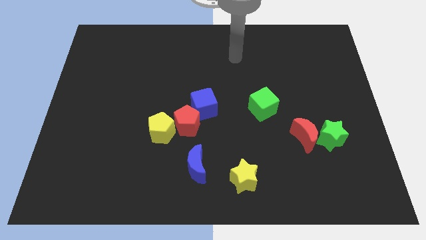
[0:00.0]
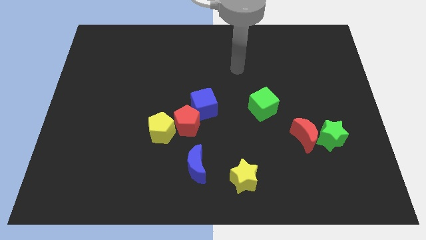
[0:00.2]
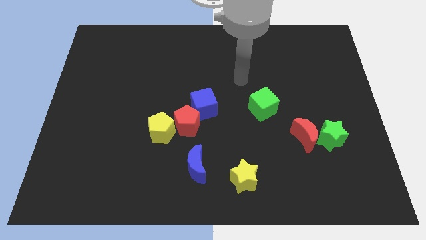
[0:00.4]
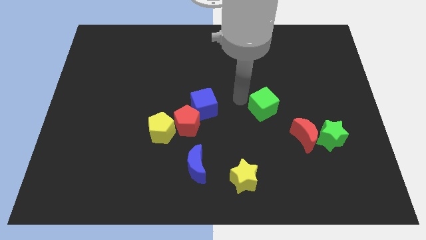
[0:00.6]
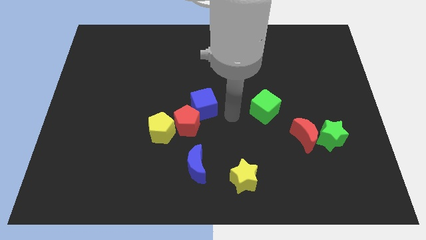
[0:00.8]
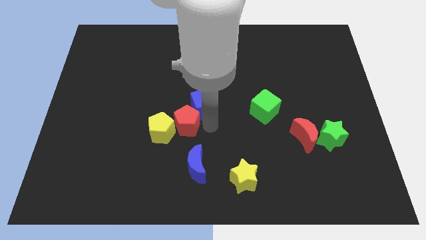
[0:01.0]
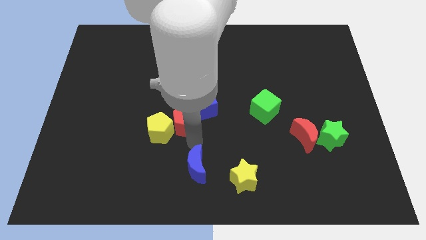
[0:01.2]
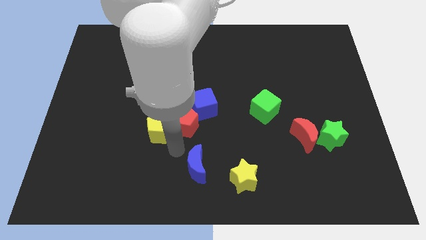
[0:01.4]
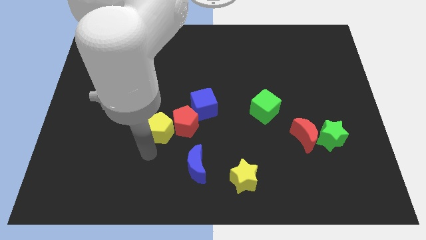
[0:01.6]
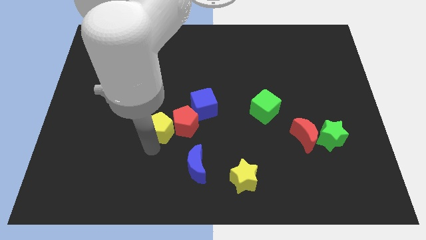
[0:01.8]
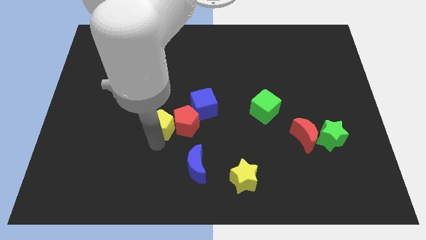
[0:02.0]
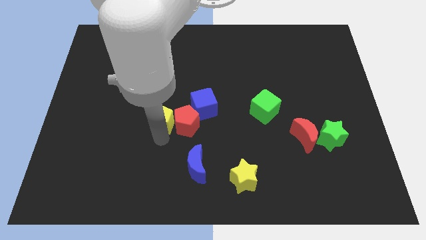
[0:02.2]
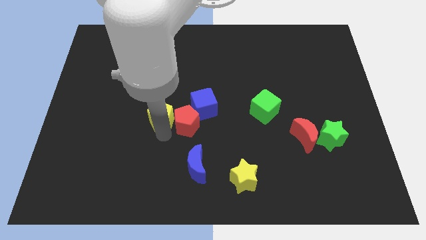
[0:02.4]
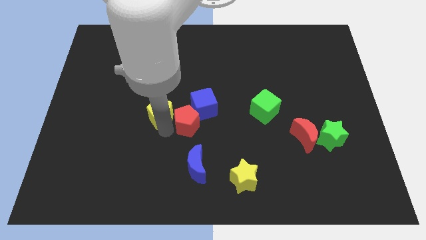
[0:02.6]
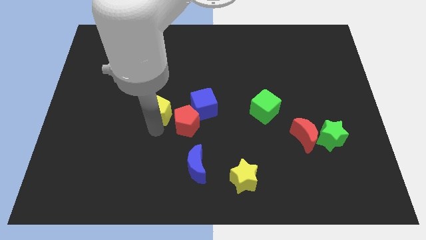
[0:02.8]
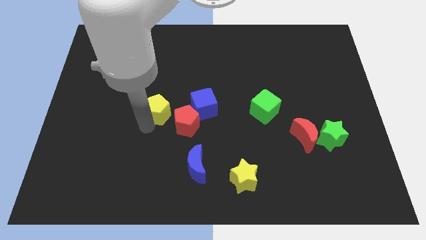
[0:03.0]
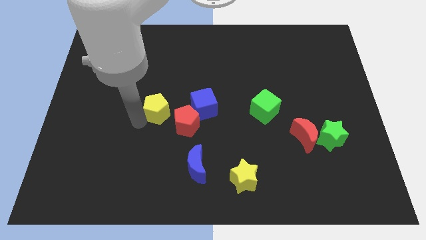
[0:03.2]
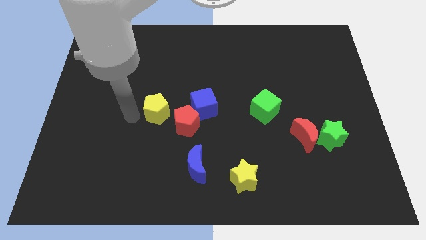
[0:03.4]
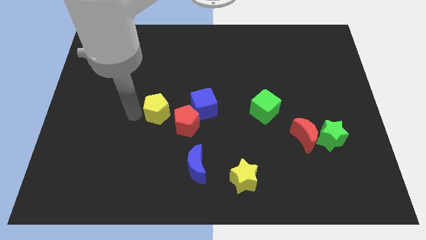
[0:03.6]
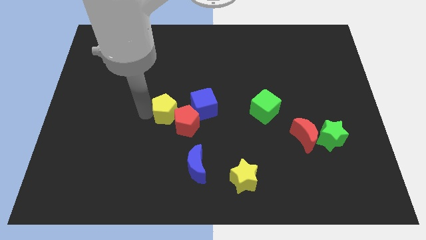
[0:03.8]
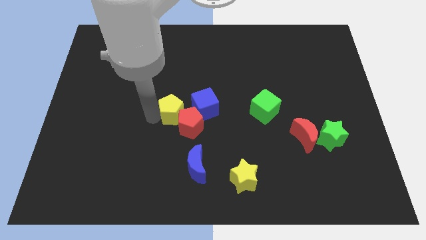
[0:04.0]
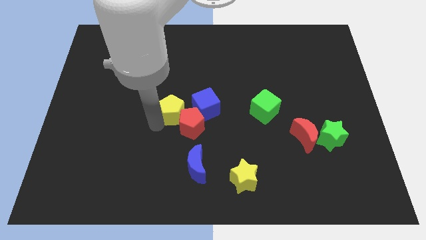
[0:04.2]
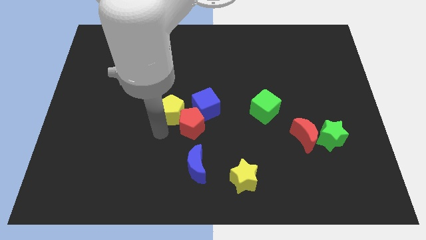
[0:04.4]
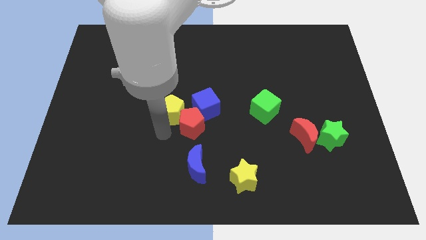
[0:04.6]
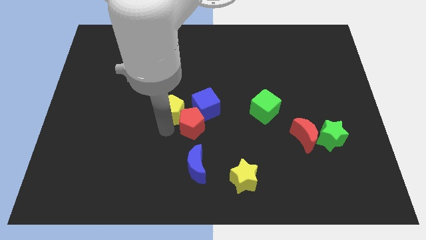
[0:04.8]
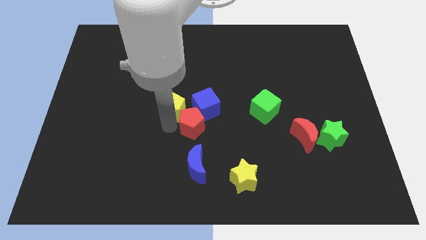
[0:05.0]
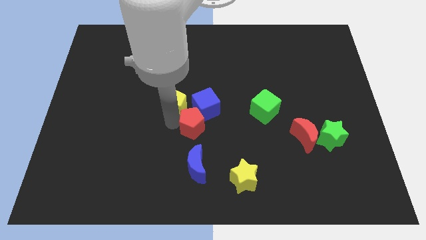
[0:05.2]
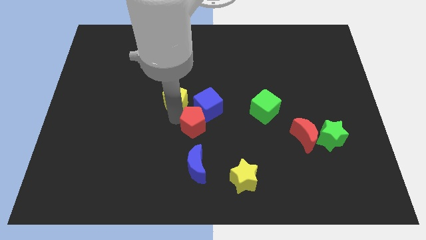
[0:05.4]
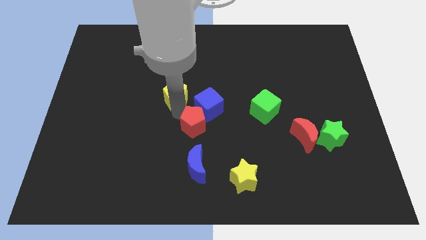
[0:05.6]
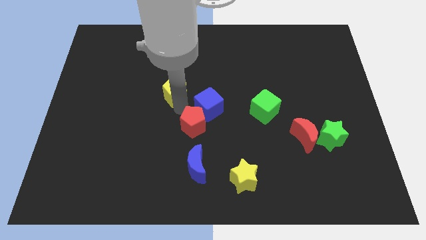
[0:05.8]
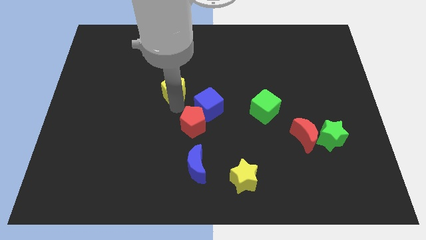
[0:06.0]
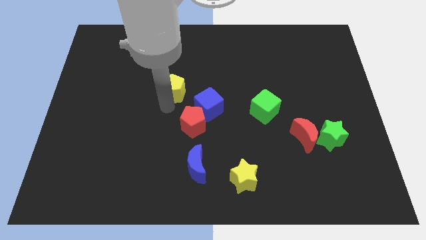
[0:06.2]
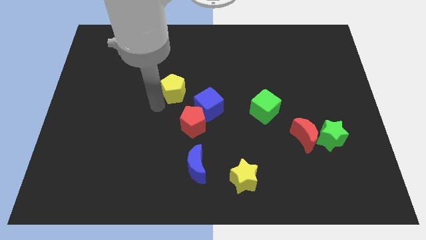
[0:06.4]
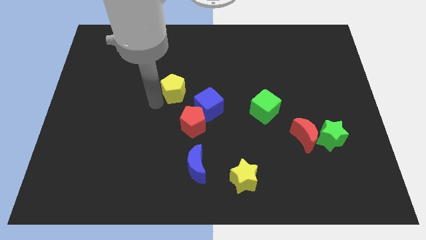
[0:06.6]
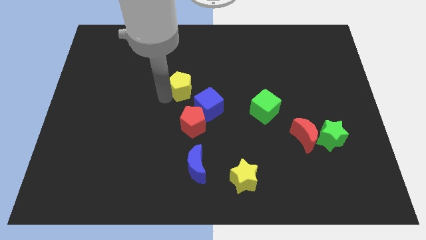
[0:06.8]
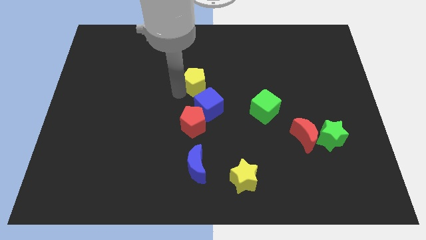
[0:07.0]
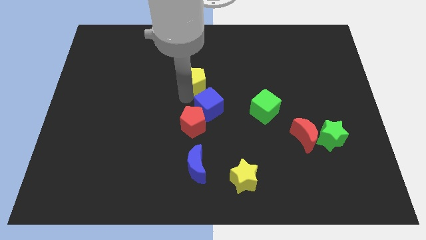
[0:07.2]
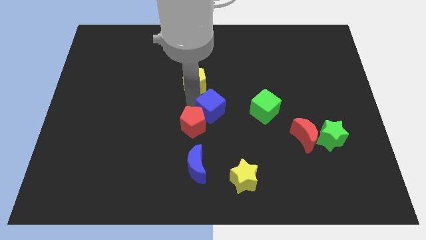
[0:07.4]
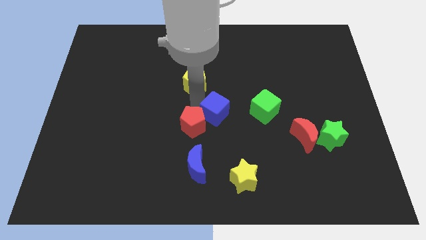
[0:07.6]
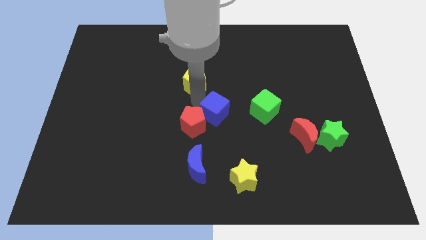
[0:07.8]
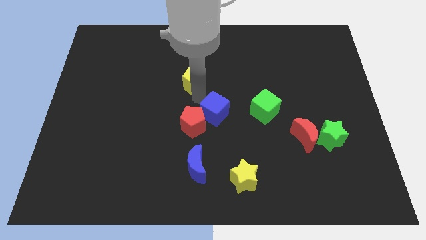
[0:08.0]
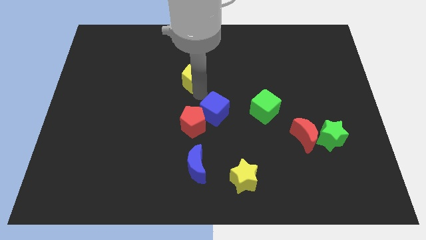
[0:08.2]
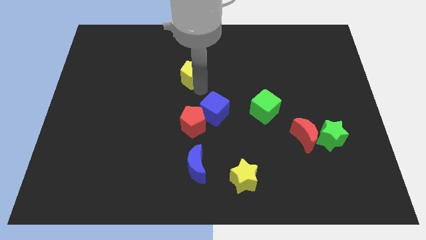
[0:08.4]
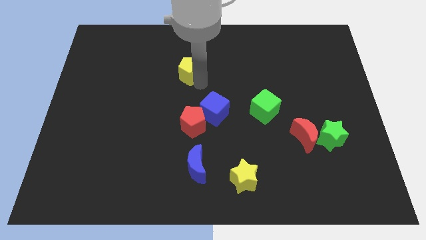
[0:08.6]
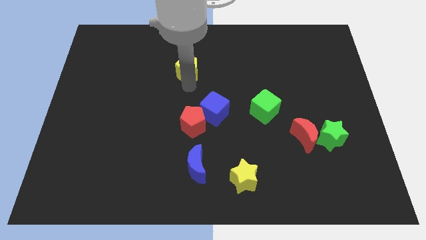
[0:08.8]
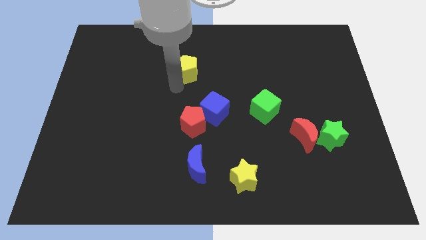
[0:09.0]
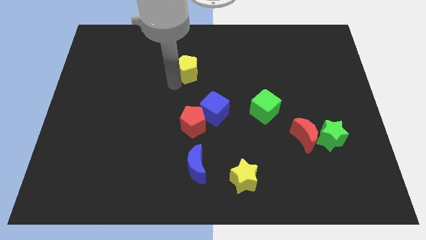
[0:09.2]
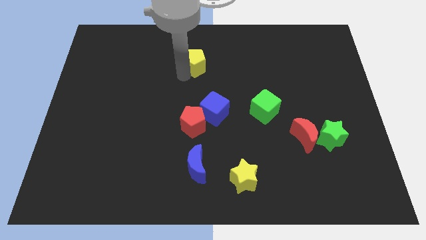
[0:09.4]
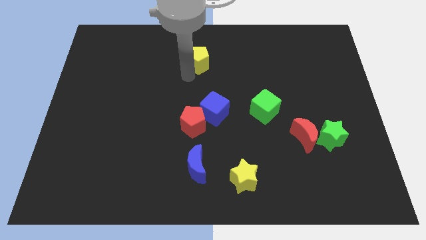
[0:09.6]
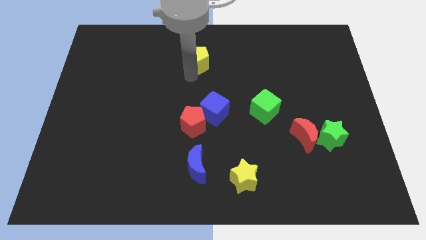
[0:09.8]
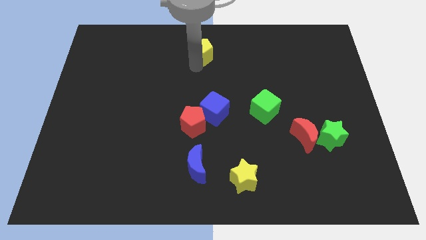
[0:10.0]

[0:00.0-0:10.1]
push the yellow pentagon to the top side

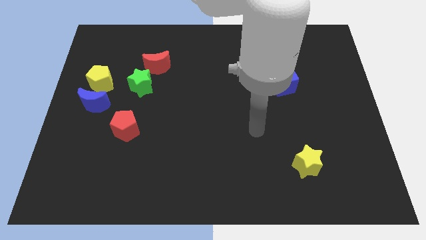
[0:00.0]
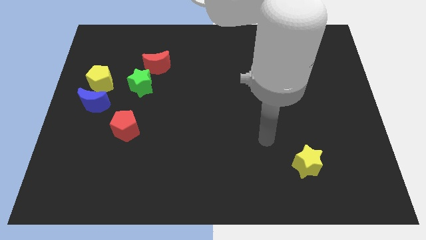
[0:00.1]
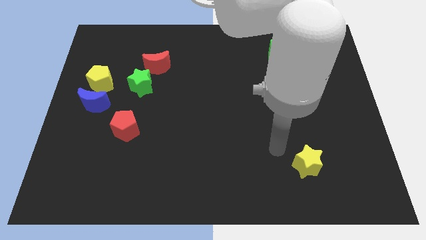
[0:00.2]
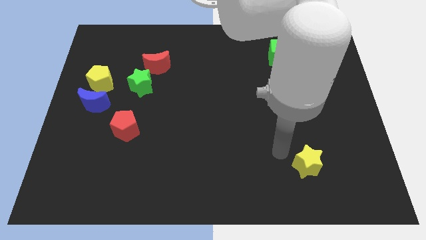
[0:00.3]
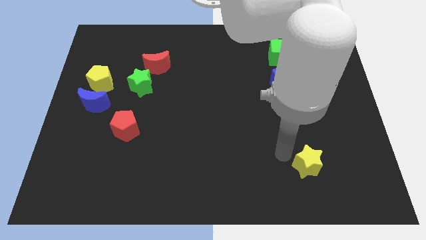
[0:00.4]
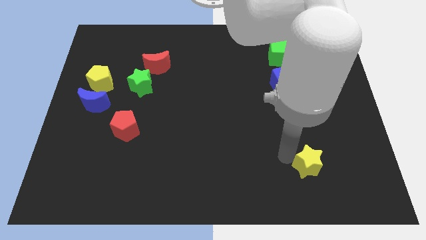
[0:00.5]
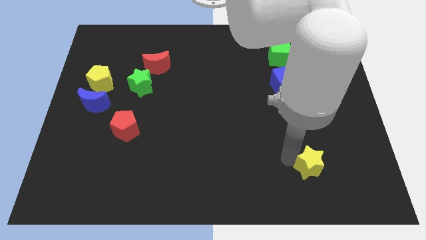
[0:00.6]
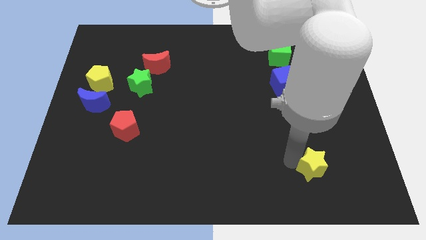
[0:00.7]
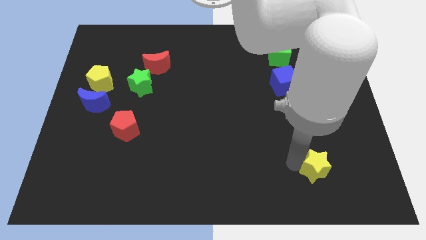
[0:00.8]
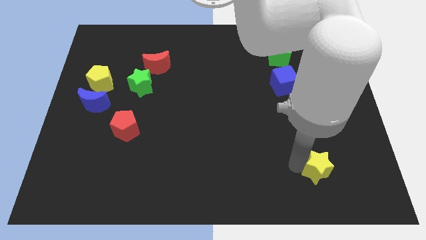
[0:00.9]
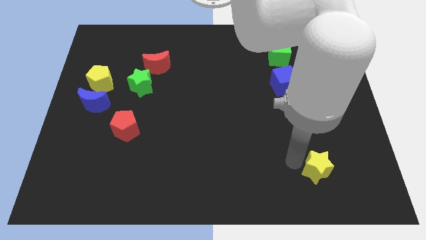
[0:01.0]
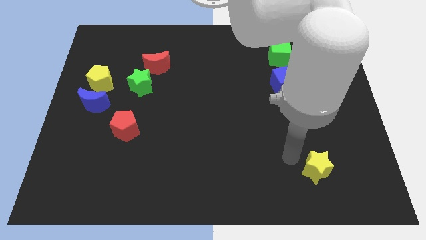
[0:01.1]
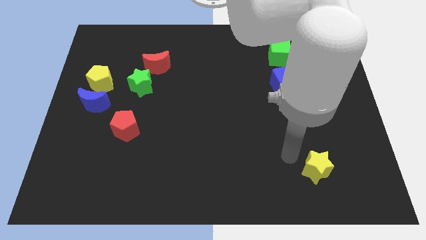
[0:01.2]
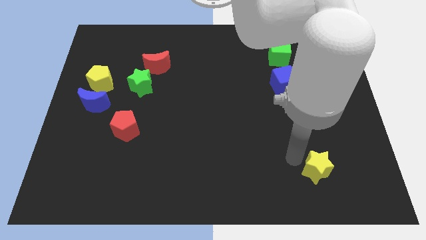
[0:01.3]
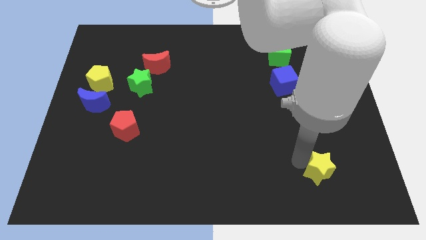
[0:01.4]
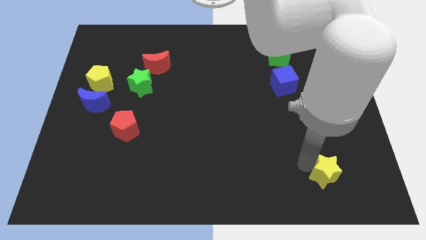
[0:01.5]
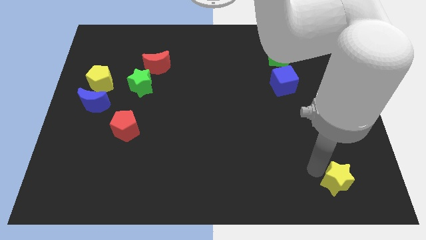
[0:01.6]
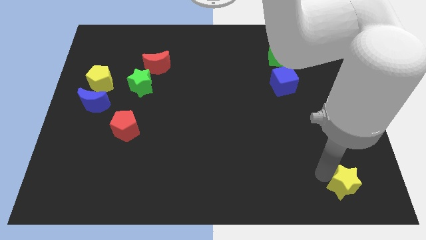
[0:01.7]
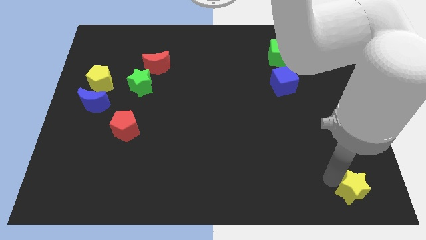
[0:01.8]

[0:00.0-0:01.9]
slide the yellow star to the lower right corner

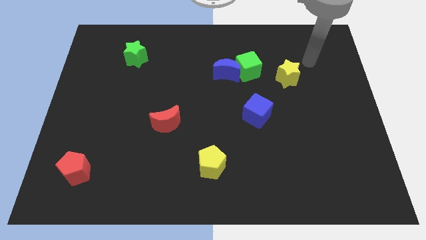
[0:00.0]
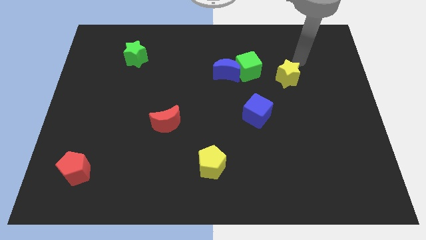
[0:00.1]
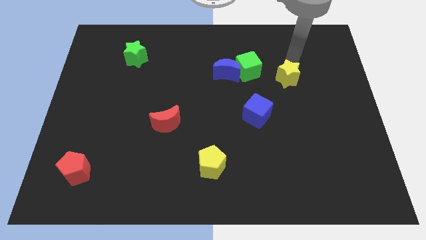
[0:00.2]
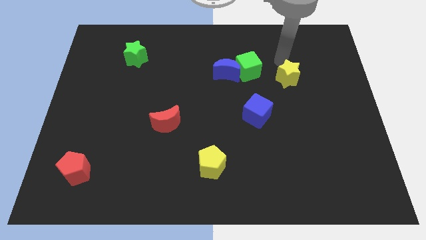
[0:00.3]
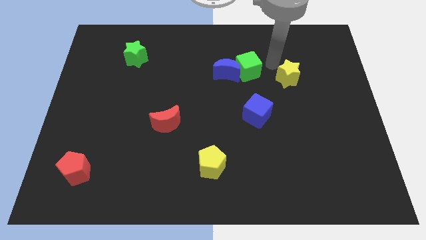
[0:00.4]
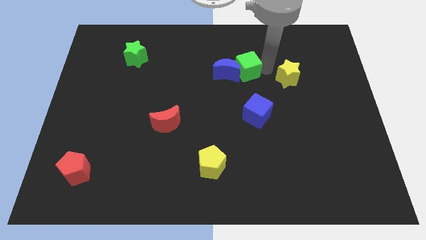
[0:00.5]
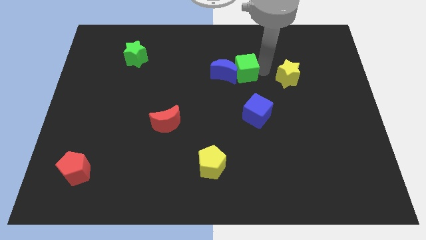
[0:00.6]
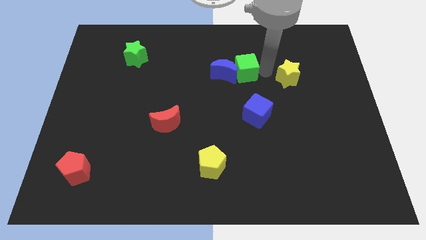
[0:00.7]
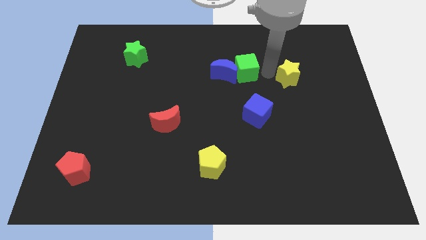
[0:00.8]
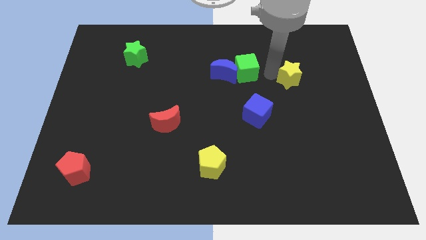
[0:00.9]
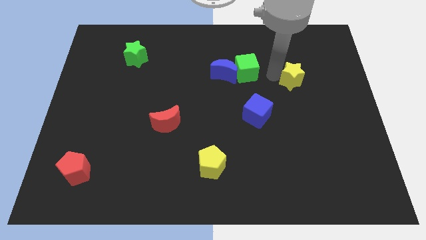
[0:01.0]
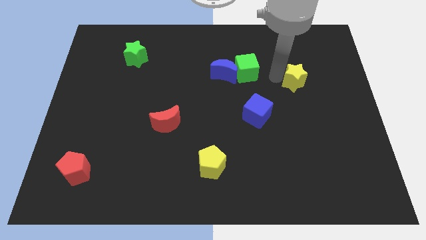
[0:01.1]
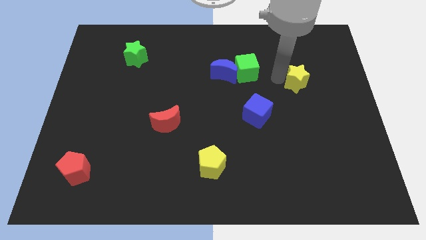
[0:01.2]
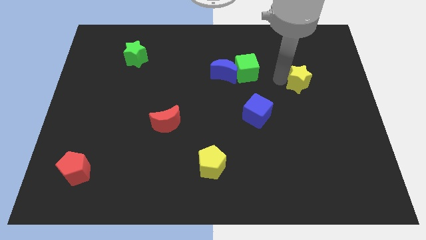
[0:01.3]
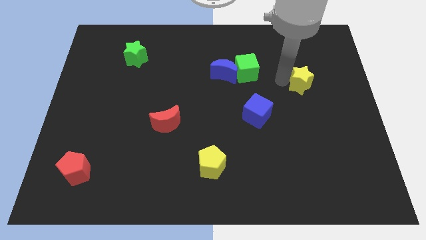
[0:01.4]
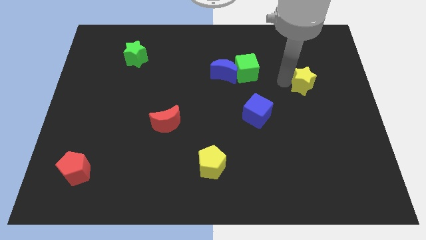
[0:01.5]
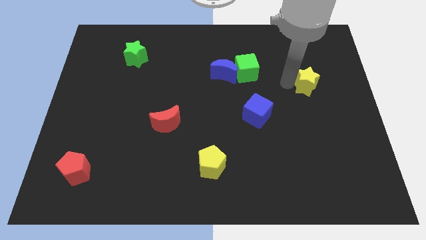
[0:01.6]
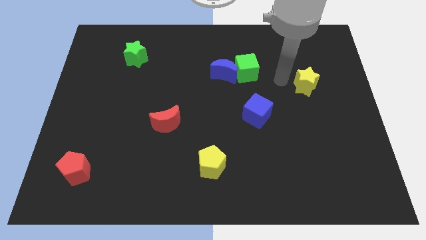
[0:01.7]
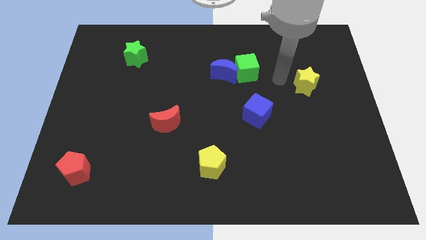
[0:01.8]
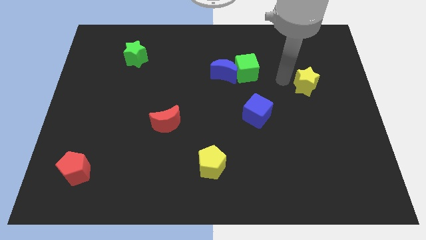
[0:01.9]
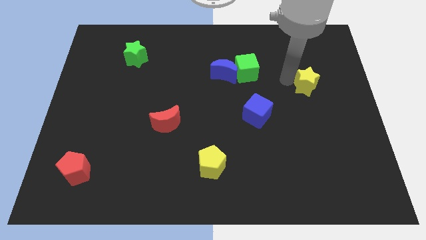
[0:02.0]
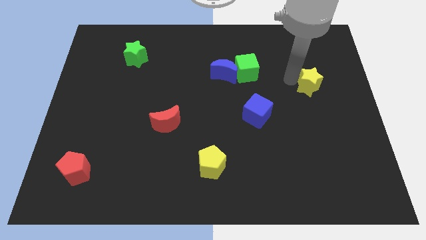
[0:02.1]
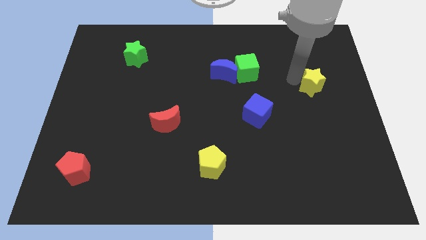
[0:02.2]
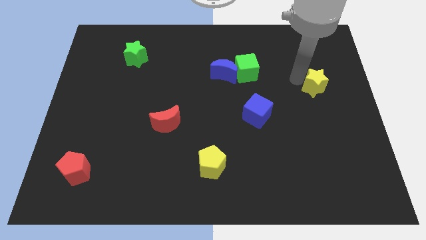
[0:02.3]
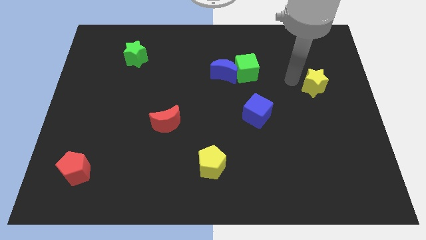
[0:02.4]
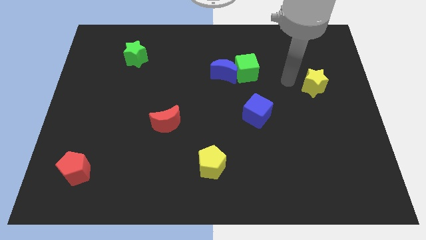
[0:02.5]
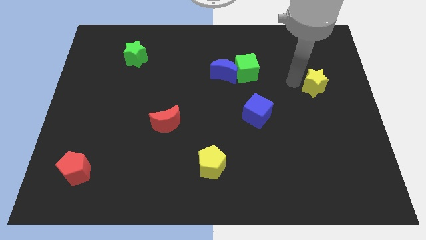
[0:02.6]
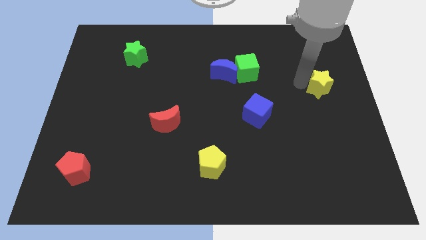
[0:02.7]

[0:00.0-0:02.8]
move the yellow star to the right side
